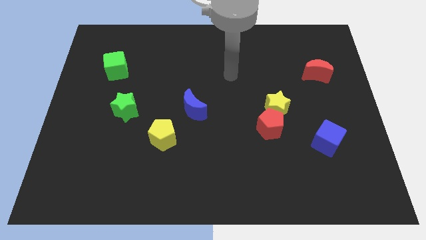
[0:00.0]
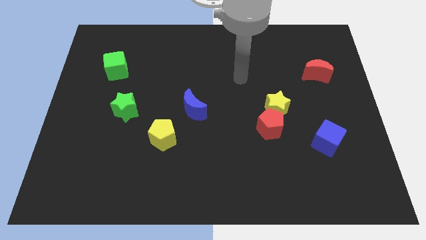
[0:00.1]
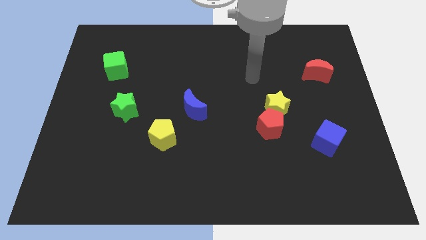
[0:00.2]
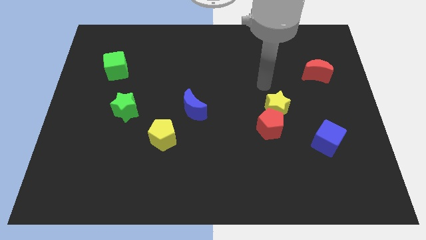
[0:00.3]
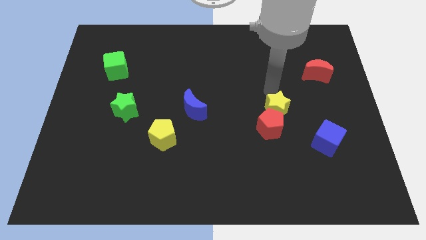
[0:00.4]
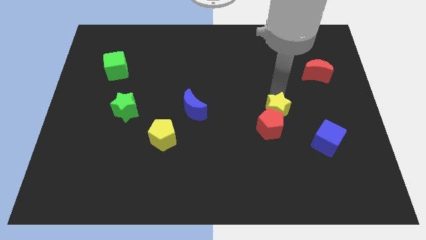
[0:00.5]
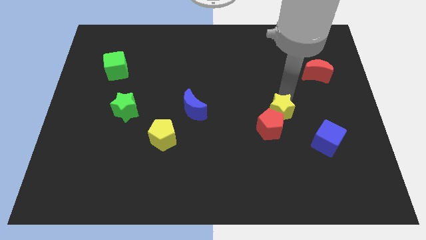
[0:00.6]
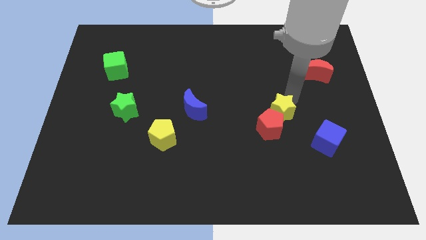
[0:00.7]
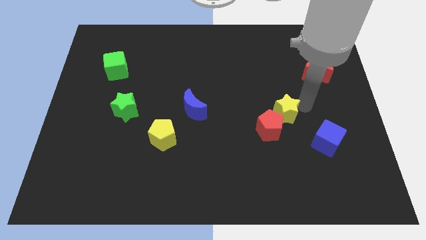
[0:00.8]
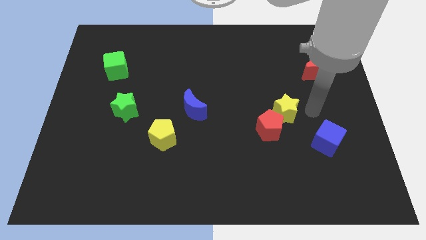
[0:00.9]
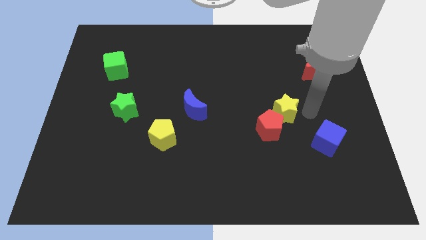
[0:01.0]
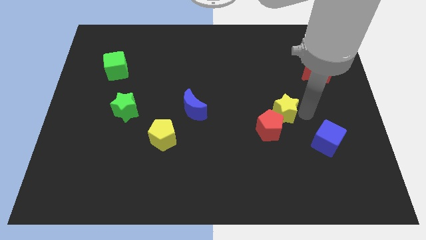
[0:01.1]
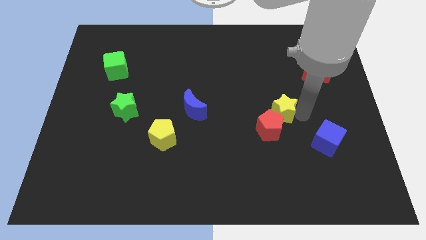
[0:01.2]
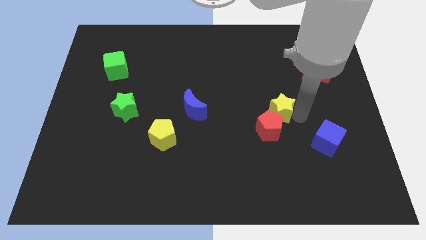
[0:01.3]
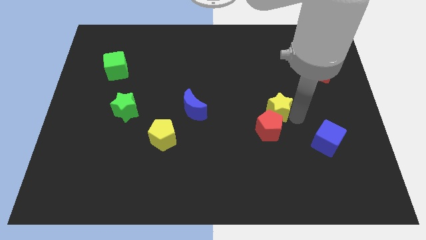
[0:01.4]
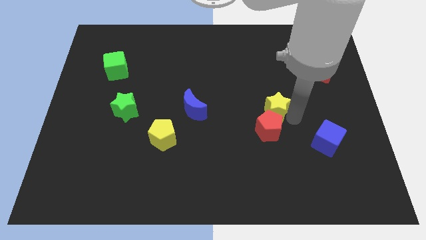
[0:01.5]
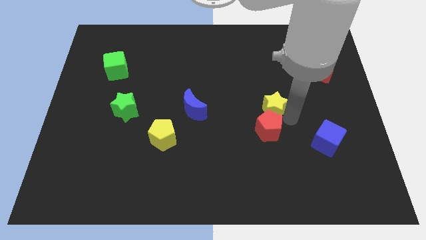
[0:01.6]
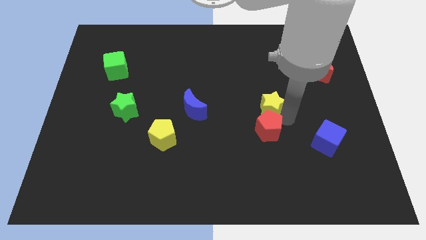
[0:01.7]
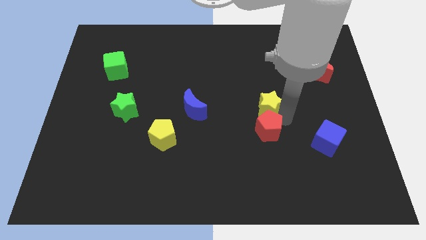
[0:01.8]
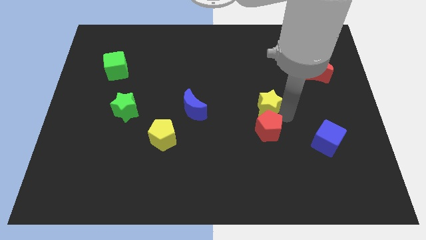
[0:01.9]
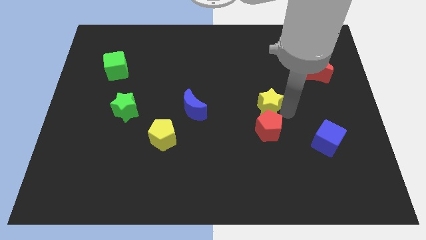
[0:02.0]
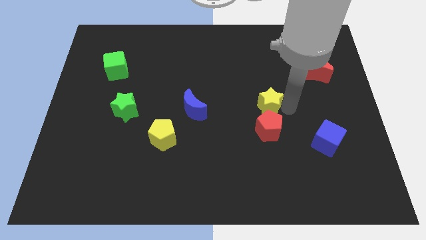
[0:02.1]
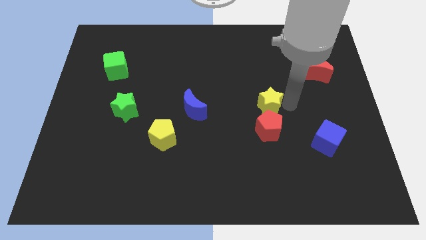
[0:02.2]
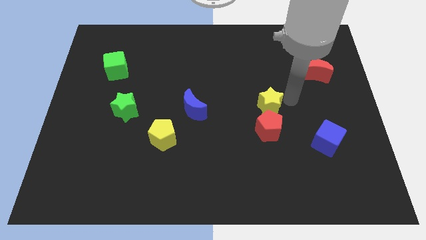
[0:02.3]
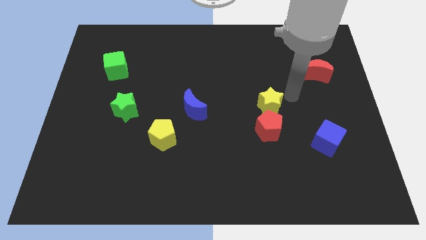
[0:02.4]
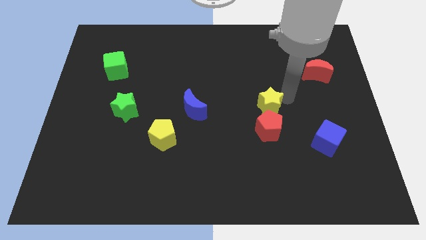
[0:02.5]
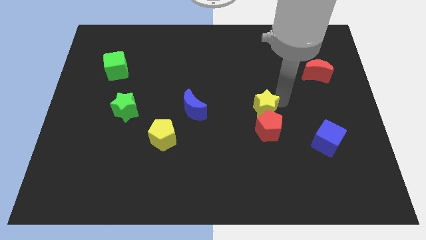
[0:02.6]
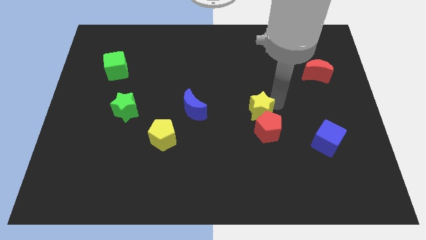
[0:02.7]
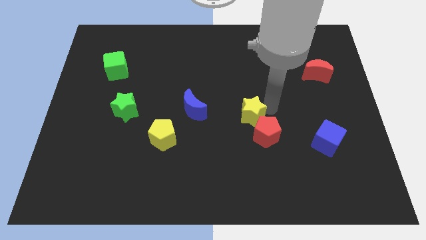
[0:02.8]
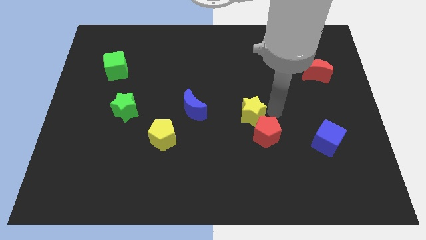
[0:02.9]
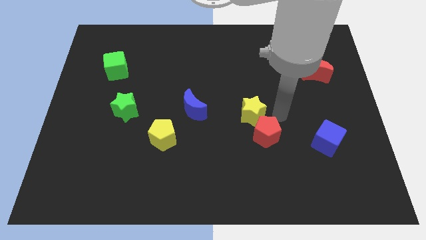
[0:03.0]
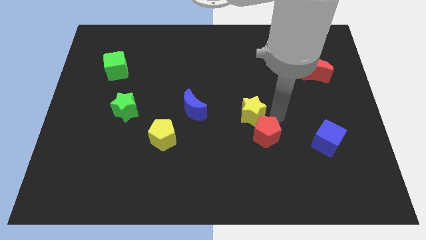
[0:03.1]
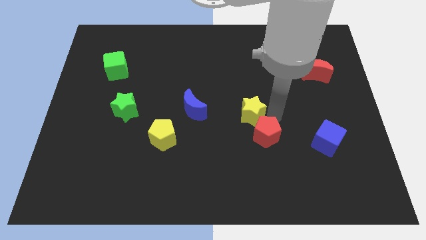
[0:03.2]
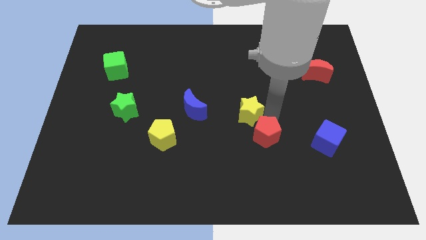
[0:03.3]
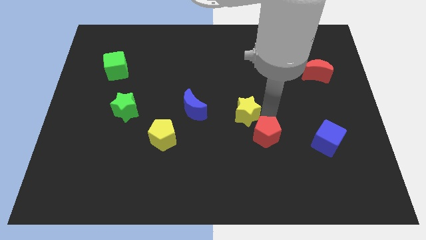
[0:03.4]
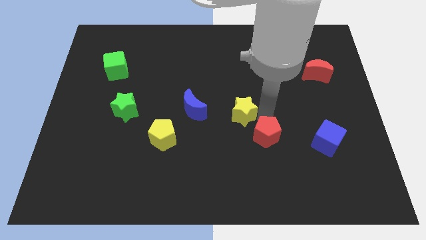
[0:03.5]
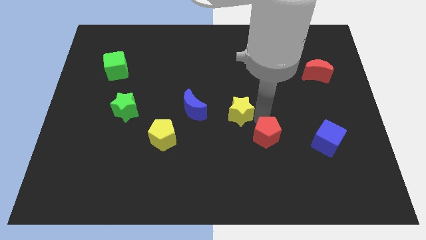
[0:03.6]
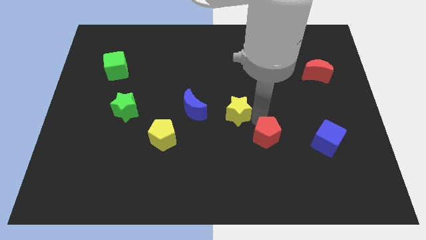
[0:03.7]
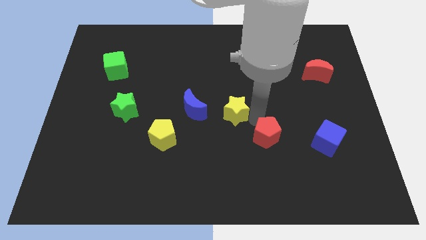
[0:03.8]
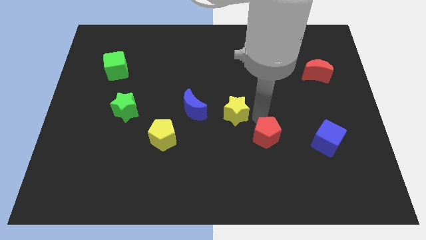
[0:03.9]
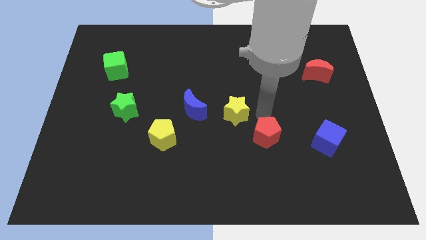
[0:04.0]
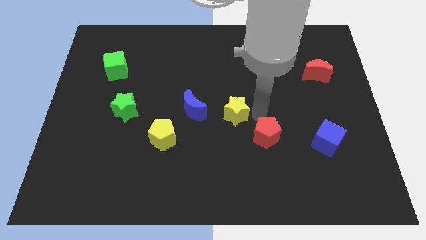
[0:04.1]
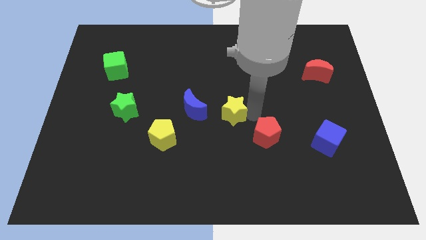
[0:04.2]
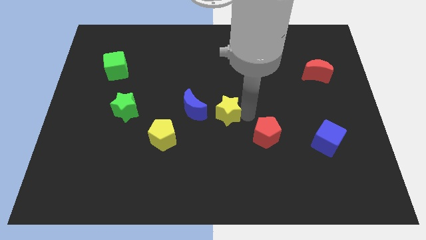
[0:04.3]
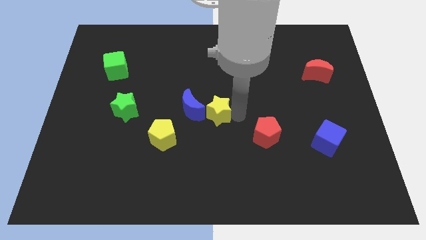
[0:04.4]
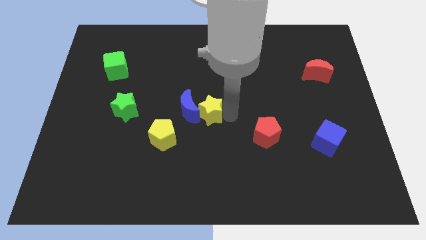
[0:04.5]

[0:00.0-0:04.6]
slide the yellow star close to the blue moon

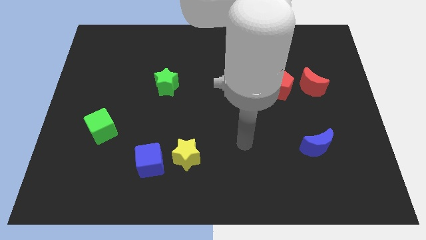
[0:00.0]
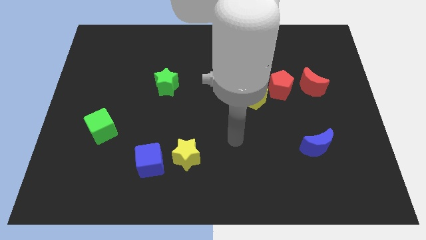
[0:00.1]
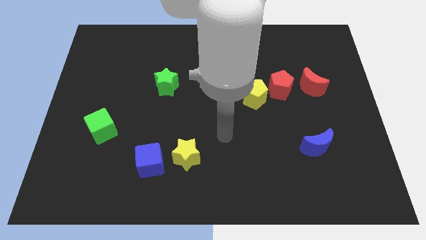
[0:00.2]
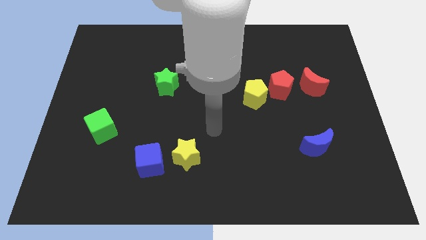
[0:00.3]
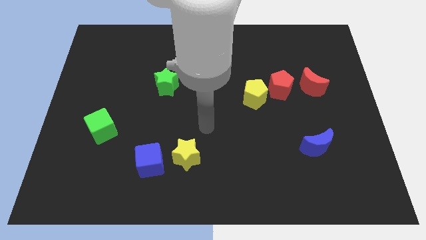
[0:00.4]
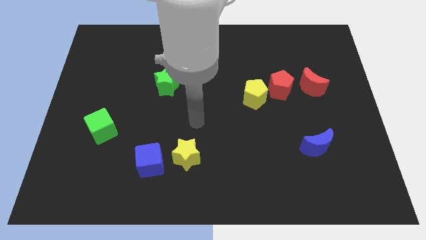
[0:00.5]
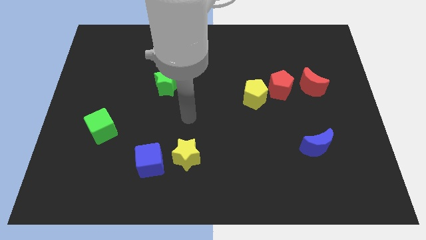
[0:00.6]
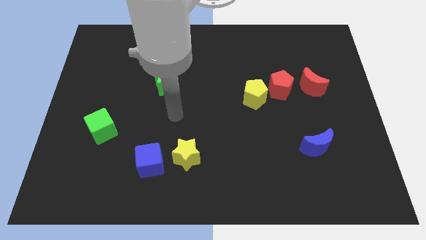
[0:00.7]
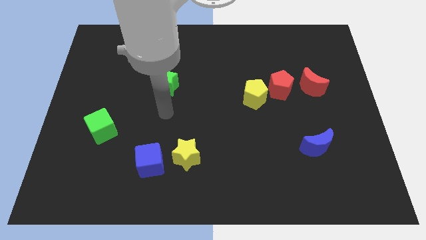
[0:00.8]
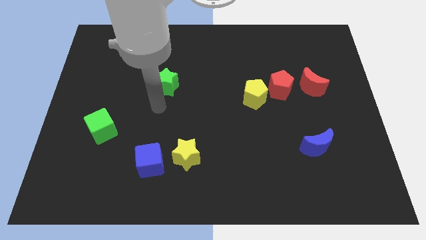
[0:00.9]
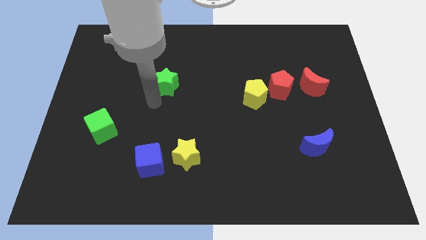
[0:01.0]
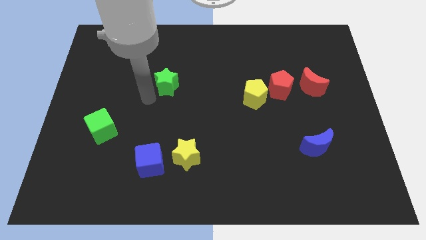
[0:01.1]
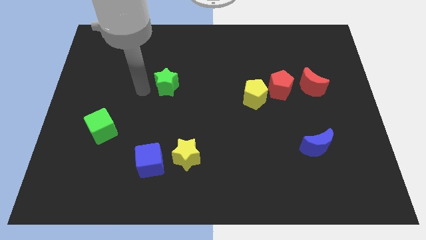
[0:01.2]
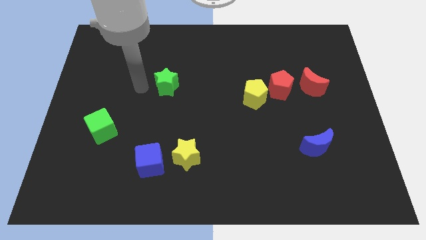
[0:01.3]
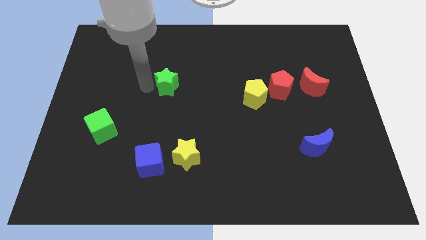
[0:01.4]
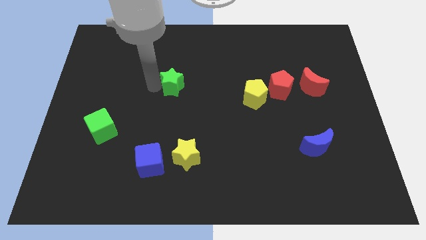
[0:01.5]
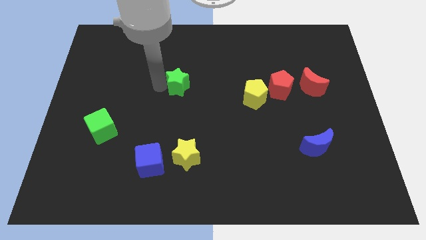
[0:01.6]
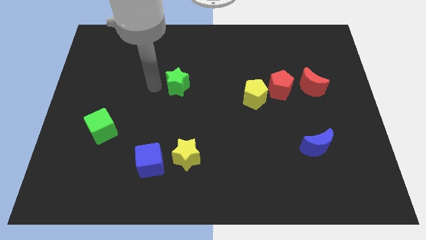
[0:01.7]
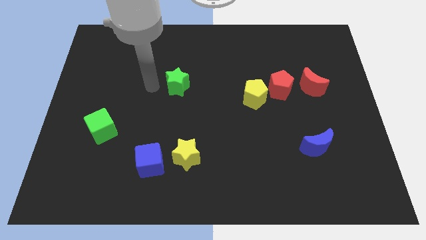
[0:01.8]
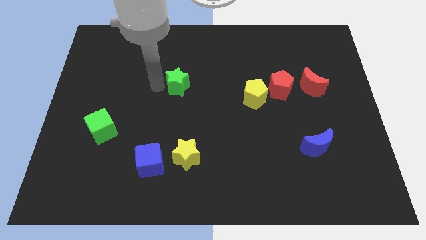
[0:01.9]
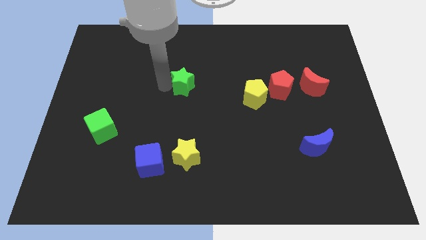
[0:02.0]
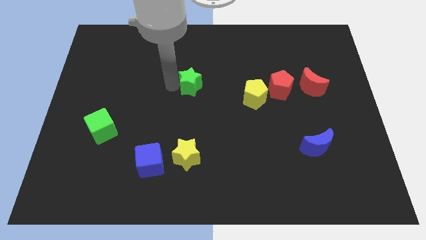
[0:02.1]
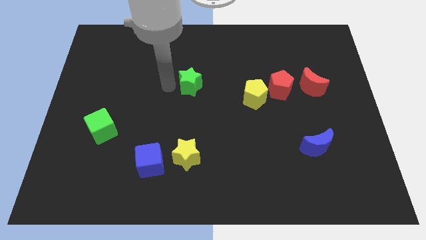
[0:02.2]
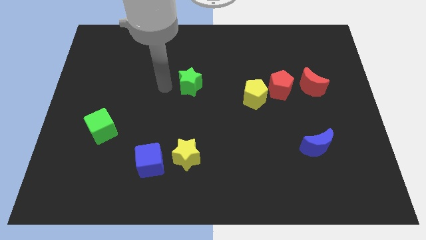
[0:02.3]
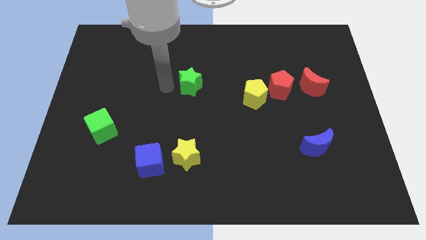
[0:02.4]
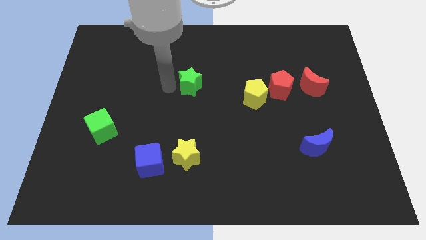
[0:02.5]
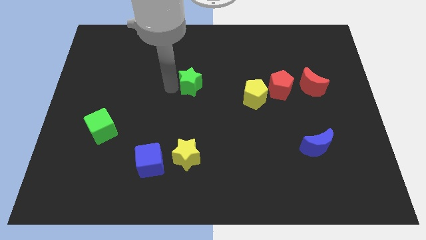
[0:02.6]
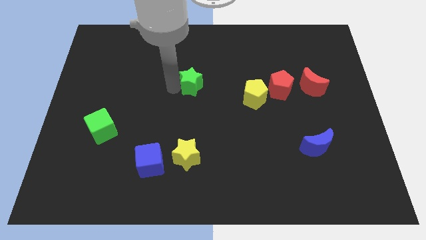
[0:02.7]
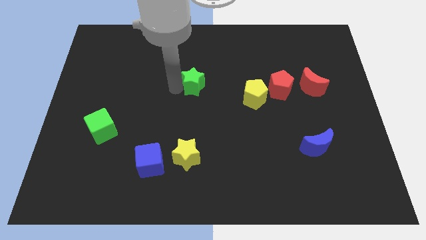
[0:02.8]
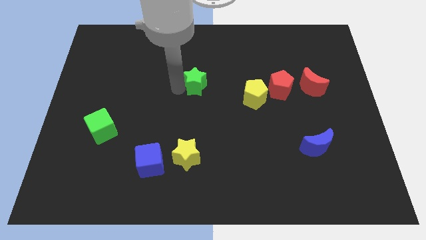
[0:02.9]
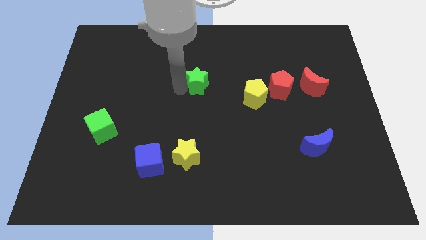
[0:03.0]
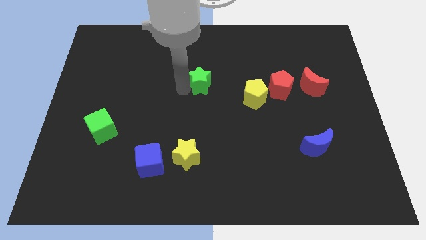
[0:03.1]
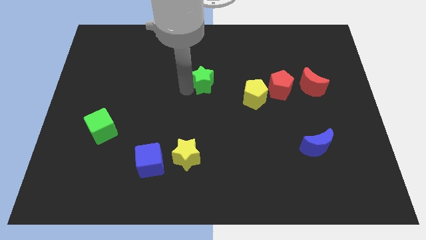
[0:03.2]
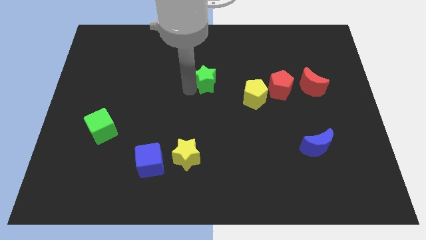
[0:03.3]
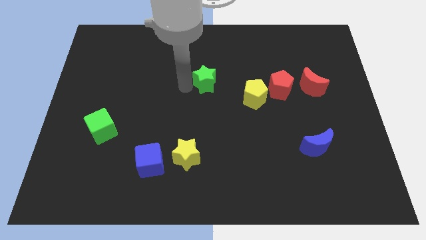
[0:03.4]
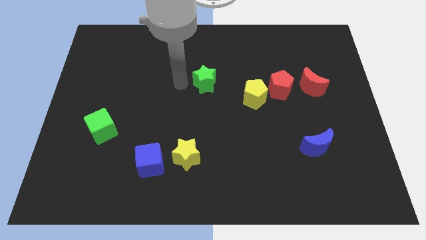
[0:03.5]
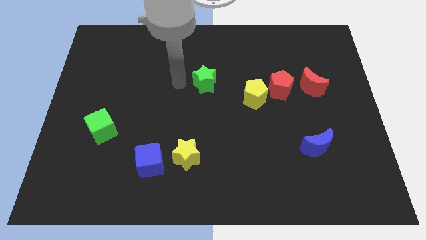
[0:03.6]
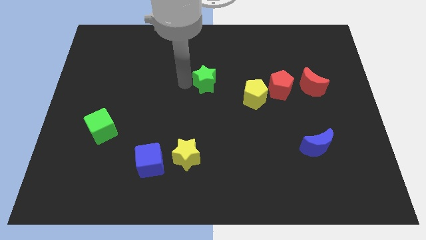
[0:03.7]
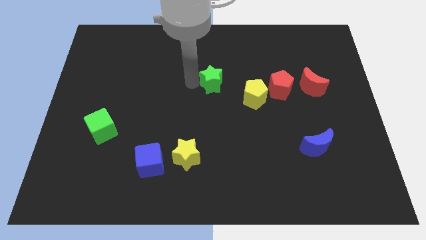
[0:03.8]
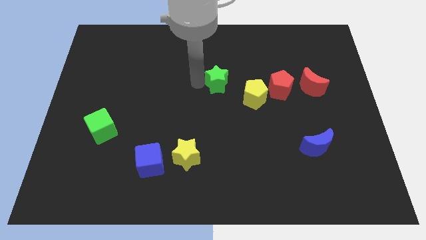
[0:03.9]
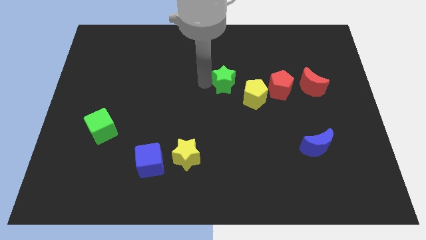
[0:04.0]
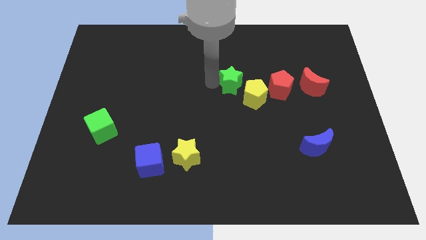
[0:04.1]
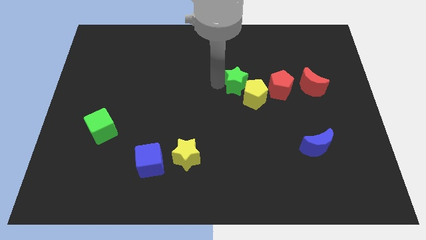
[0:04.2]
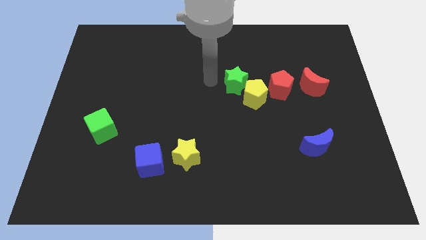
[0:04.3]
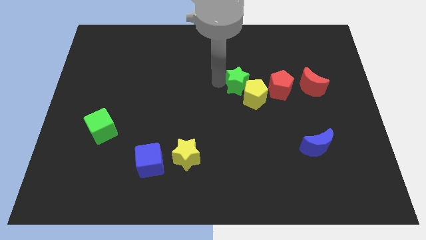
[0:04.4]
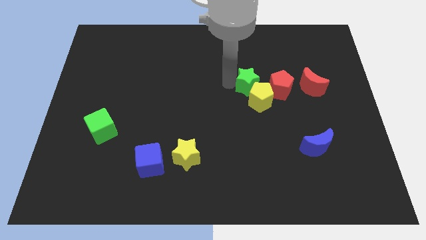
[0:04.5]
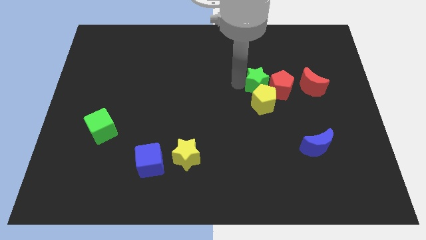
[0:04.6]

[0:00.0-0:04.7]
slide the green star close to the red pentagon
